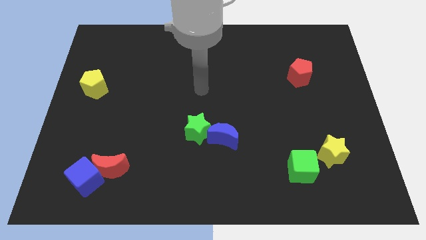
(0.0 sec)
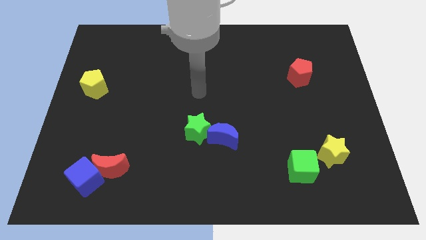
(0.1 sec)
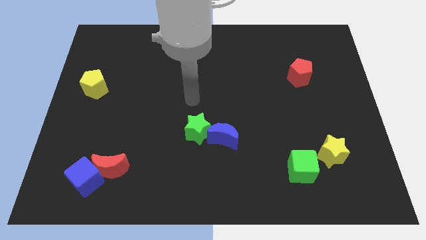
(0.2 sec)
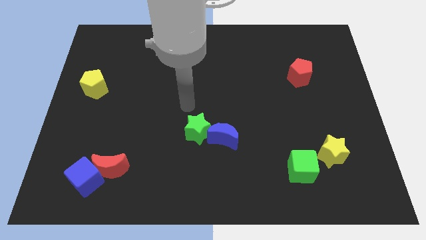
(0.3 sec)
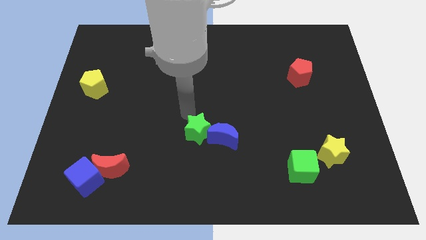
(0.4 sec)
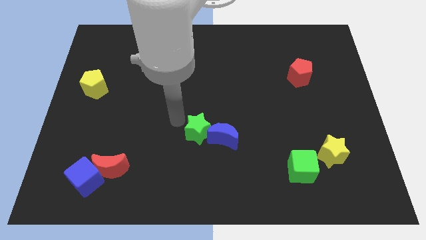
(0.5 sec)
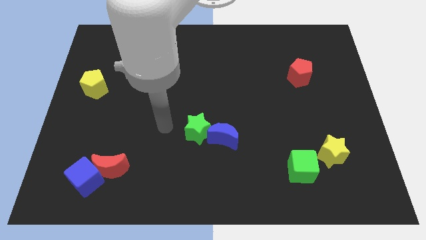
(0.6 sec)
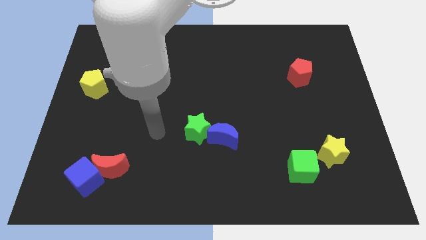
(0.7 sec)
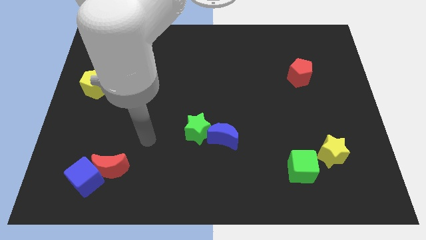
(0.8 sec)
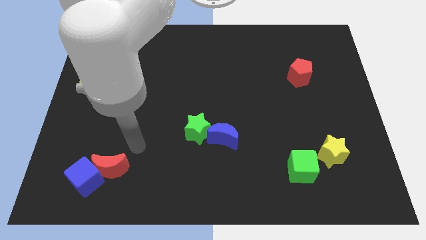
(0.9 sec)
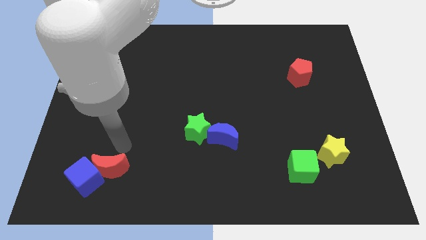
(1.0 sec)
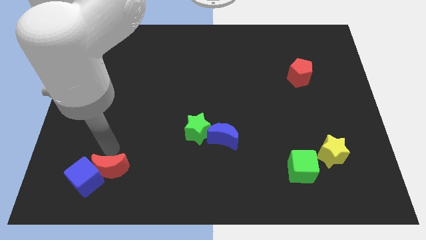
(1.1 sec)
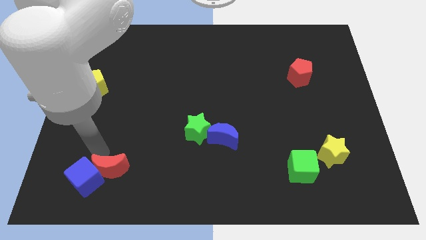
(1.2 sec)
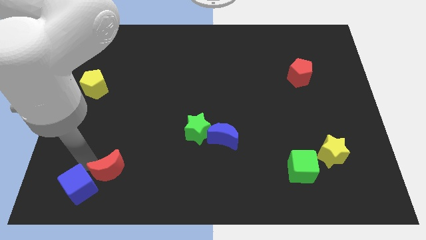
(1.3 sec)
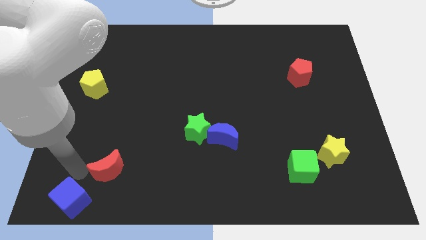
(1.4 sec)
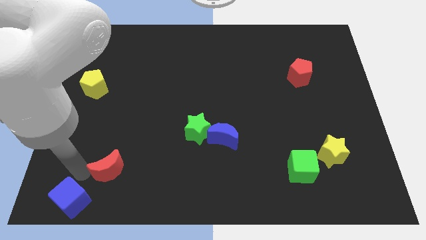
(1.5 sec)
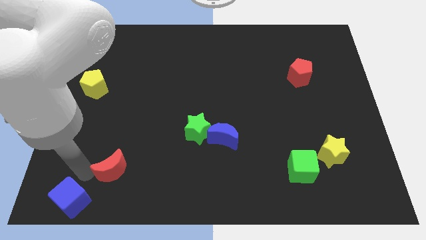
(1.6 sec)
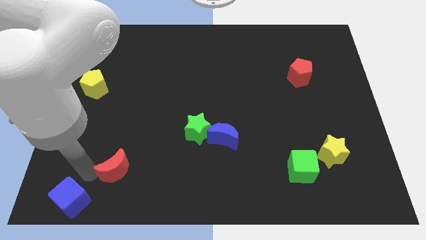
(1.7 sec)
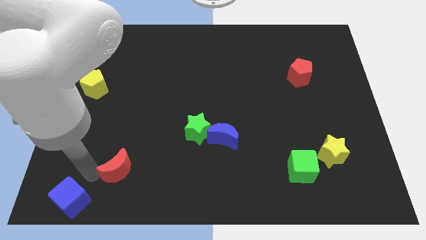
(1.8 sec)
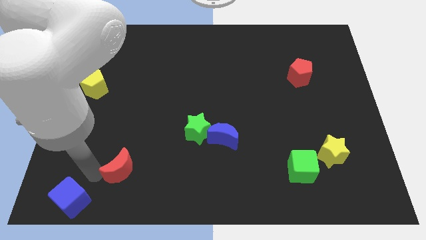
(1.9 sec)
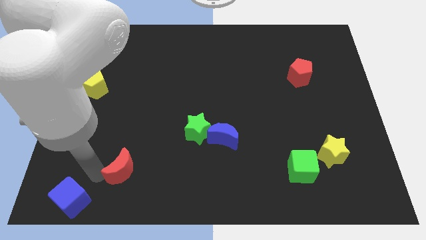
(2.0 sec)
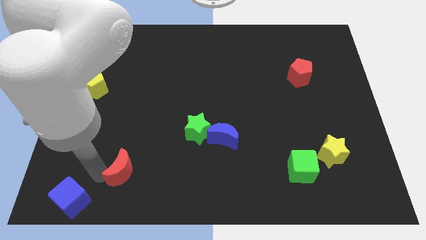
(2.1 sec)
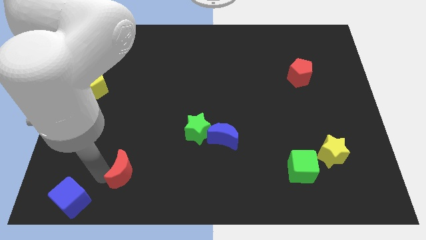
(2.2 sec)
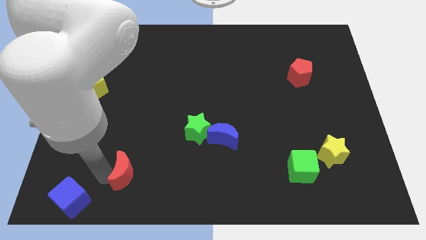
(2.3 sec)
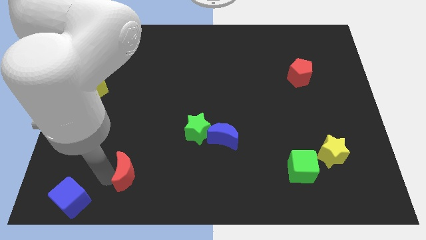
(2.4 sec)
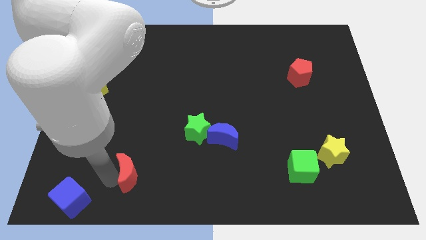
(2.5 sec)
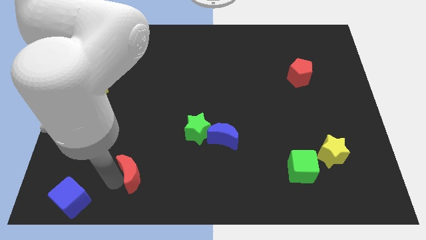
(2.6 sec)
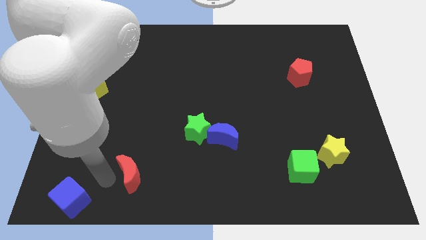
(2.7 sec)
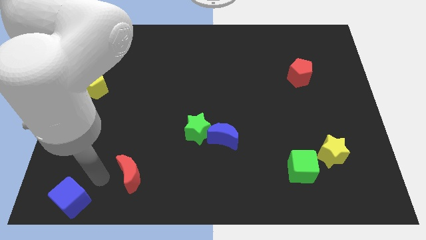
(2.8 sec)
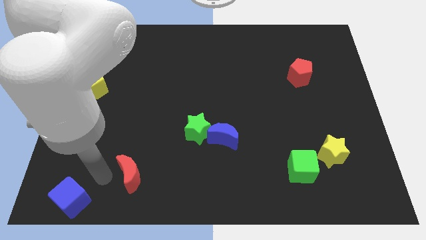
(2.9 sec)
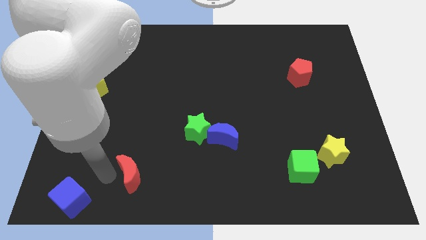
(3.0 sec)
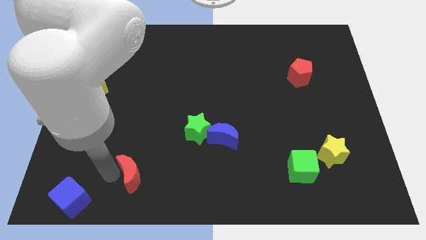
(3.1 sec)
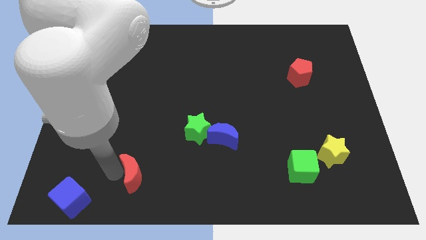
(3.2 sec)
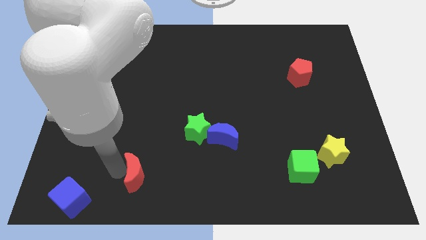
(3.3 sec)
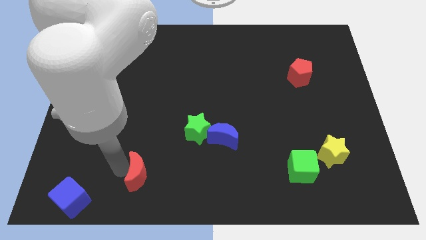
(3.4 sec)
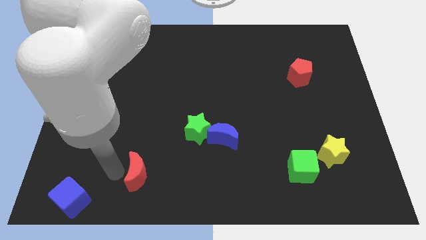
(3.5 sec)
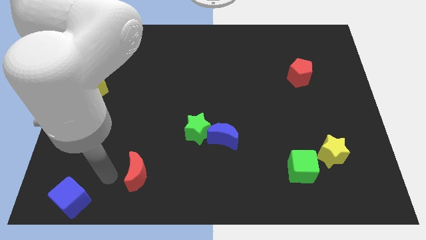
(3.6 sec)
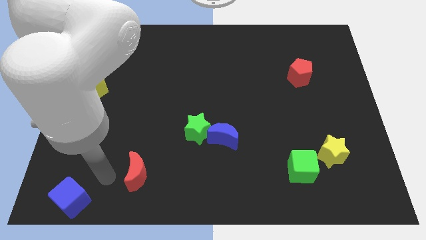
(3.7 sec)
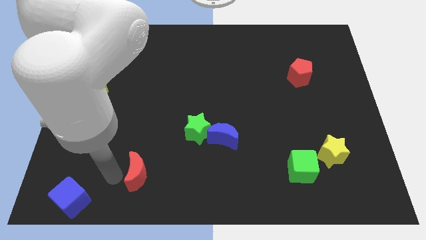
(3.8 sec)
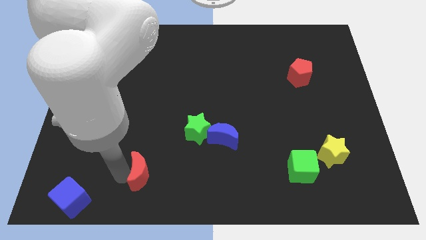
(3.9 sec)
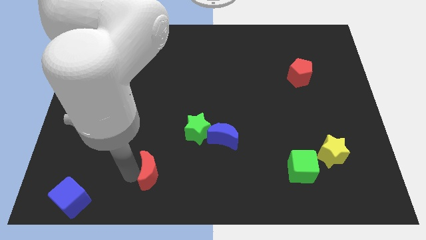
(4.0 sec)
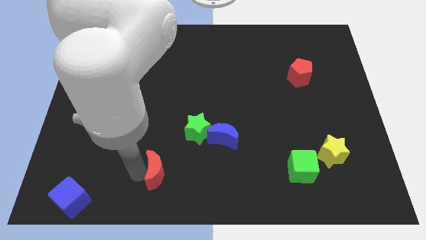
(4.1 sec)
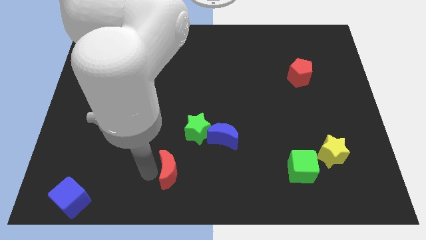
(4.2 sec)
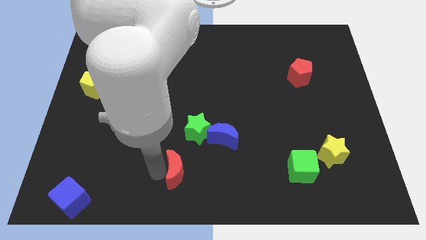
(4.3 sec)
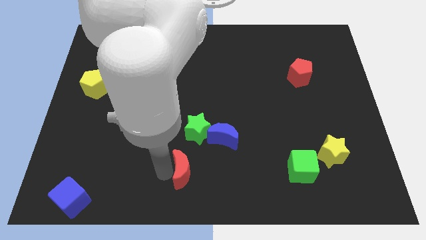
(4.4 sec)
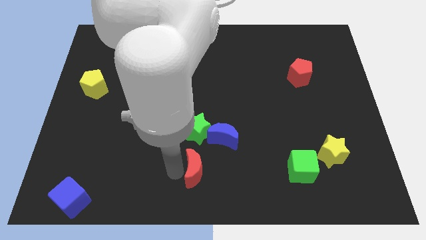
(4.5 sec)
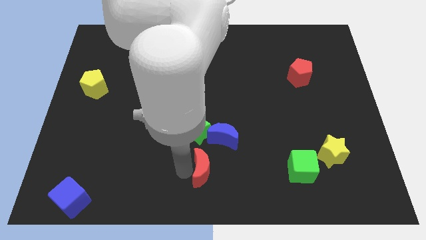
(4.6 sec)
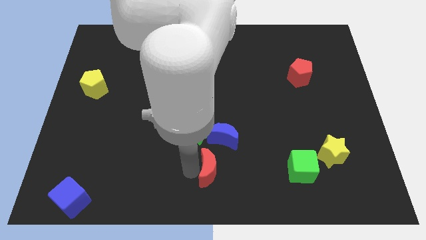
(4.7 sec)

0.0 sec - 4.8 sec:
move the red moon right

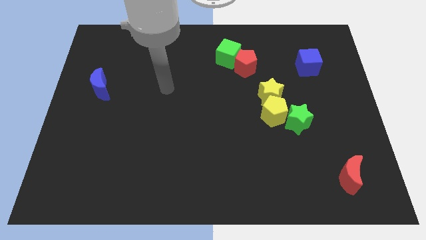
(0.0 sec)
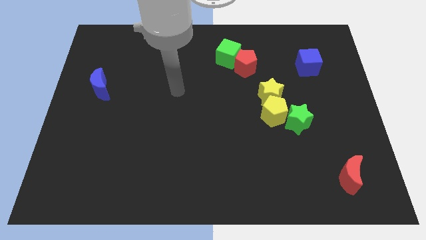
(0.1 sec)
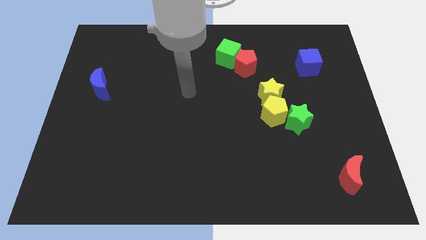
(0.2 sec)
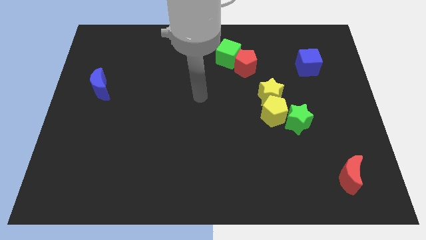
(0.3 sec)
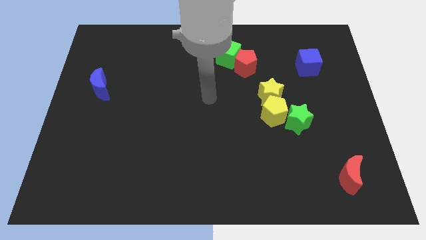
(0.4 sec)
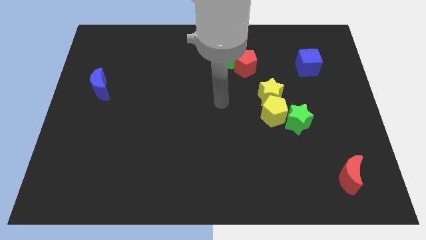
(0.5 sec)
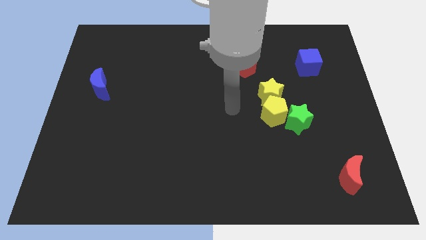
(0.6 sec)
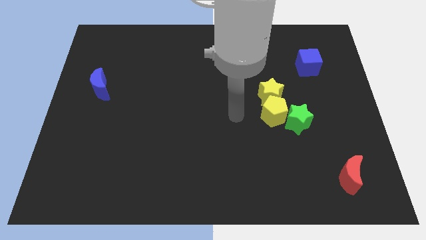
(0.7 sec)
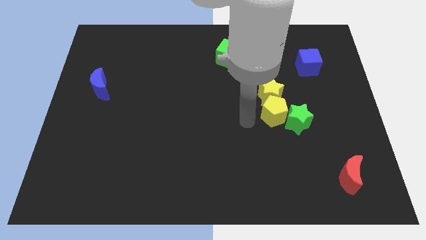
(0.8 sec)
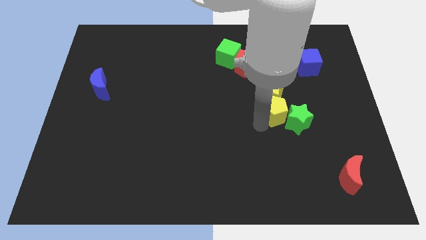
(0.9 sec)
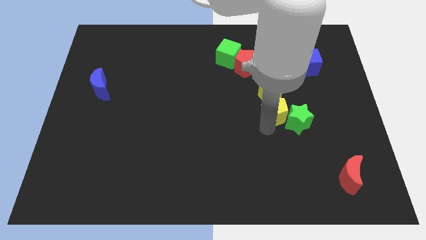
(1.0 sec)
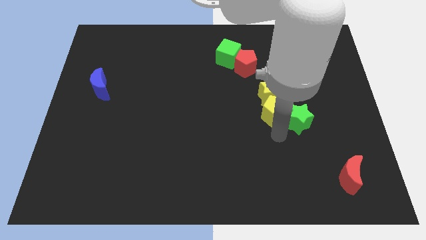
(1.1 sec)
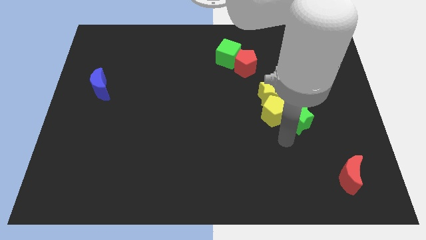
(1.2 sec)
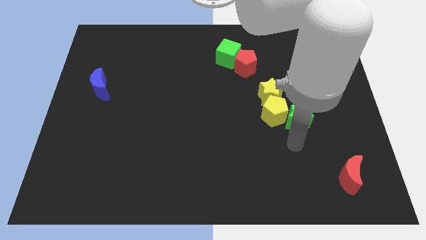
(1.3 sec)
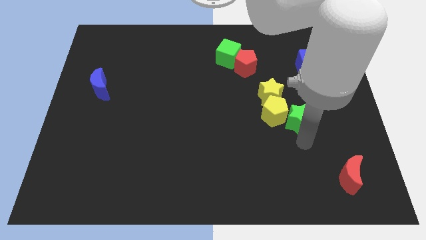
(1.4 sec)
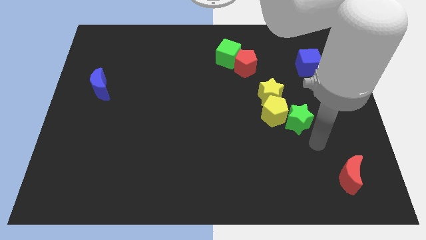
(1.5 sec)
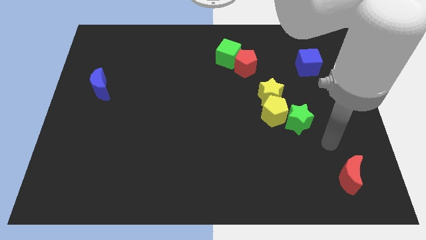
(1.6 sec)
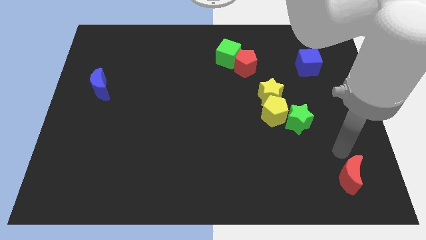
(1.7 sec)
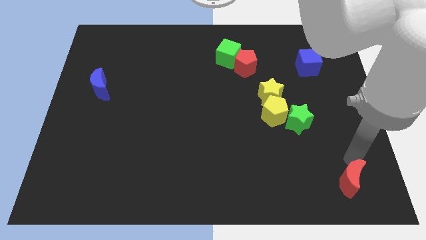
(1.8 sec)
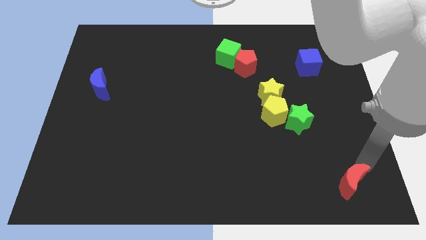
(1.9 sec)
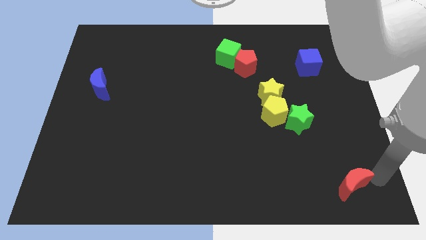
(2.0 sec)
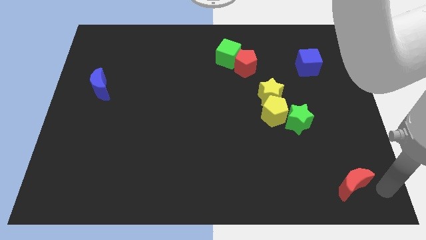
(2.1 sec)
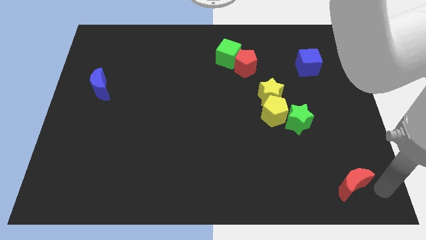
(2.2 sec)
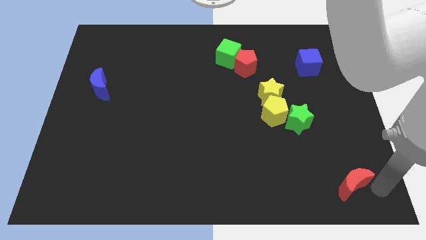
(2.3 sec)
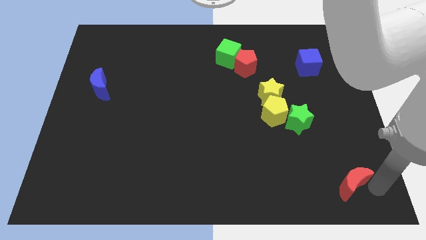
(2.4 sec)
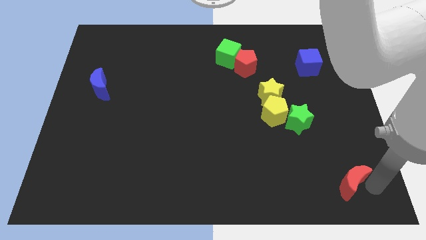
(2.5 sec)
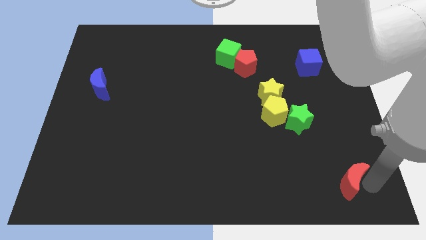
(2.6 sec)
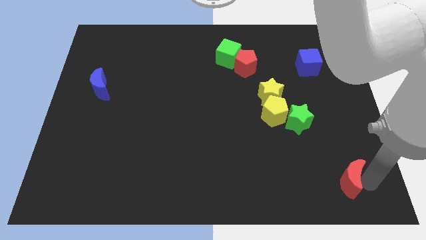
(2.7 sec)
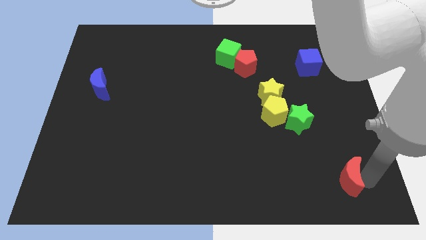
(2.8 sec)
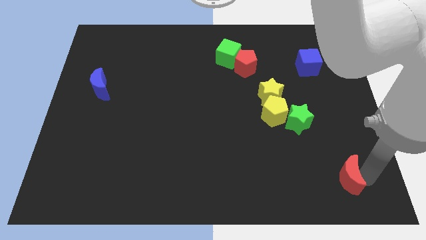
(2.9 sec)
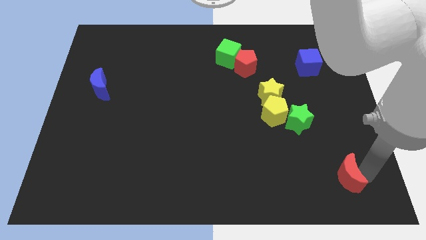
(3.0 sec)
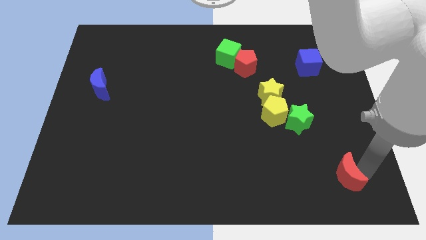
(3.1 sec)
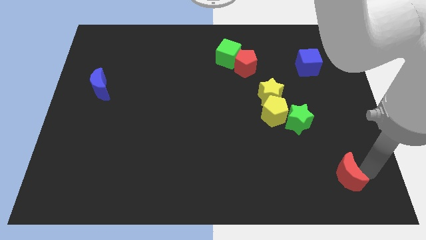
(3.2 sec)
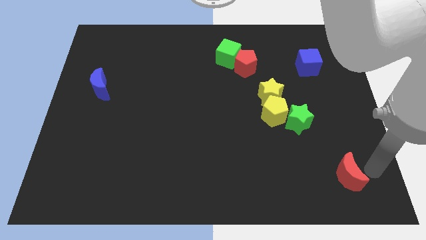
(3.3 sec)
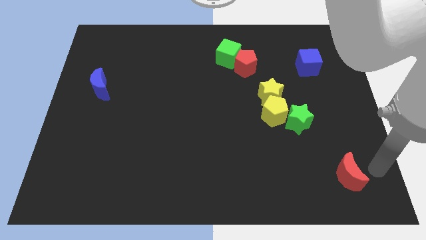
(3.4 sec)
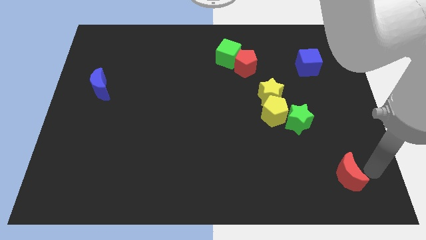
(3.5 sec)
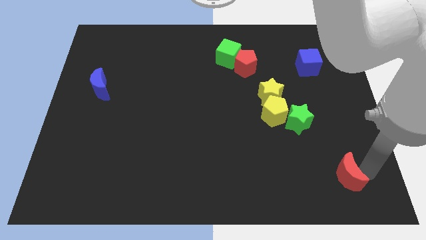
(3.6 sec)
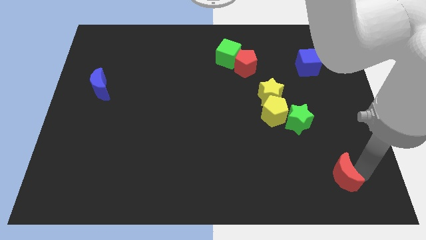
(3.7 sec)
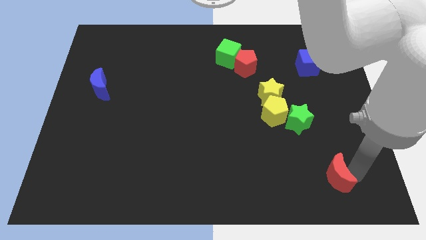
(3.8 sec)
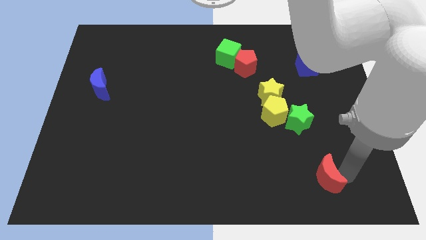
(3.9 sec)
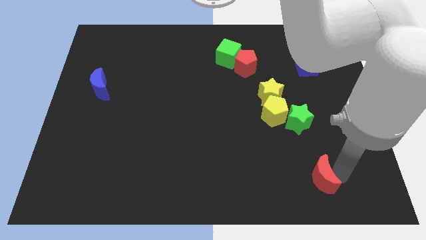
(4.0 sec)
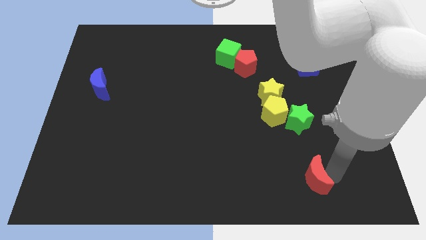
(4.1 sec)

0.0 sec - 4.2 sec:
slide the red moon slightly to the left
